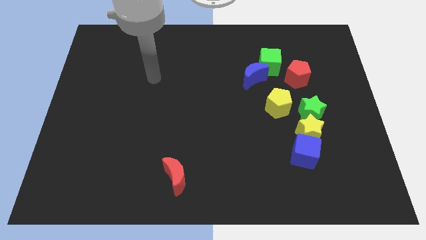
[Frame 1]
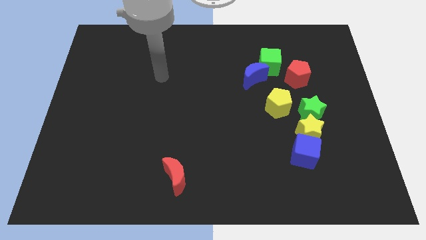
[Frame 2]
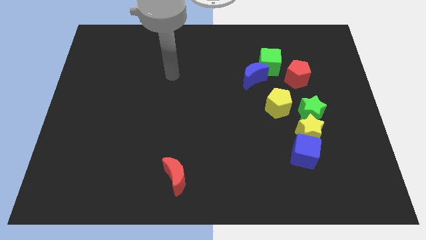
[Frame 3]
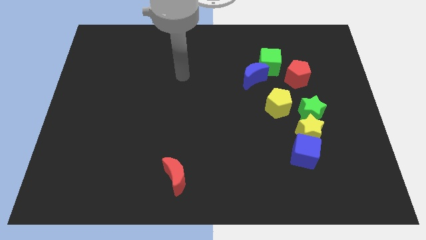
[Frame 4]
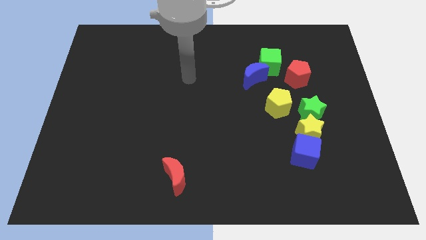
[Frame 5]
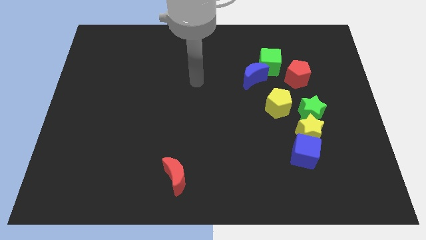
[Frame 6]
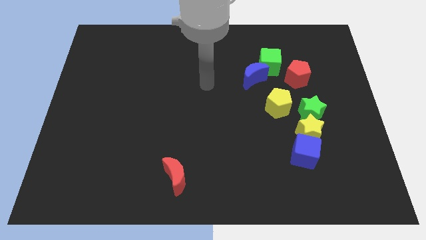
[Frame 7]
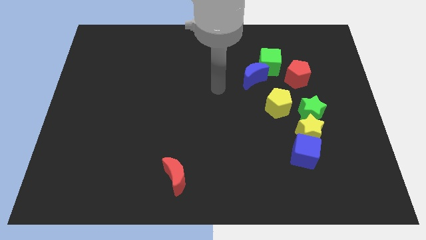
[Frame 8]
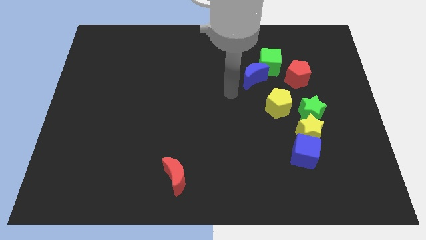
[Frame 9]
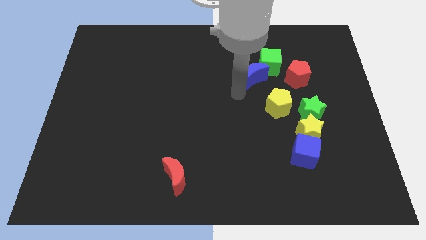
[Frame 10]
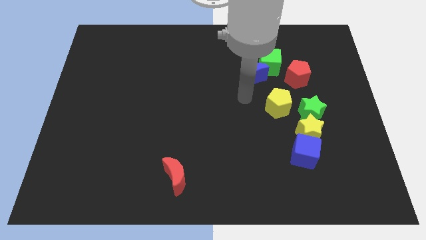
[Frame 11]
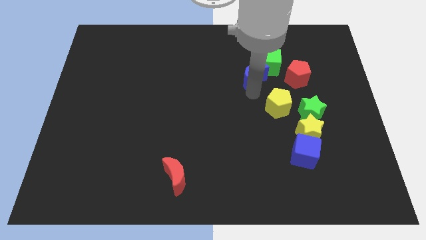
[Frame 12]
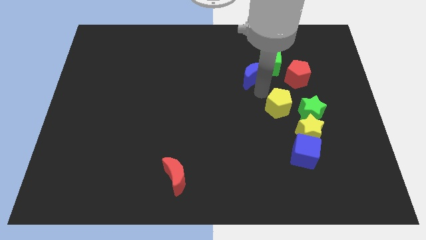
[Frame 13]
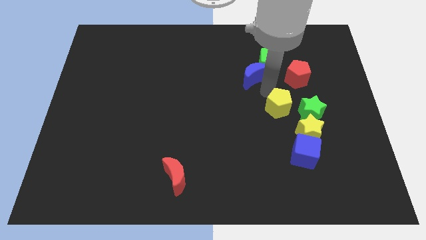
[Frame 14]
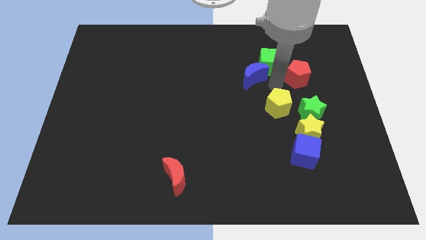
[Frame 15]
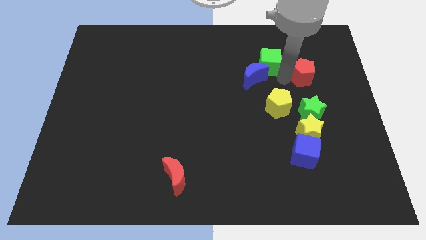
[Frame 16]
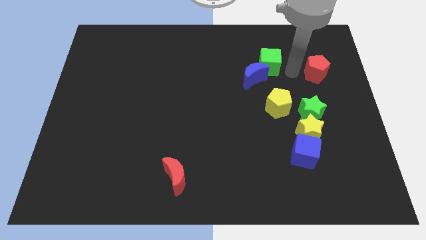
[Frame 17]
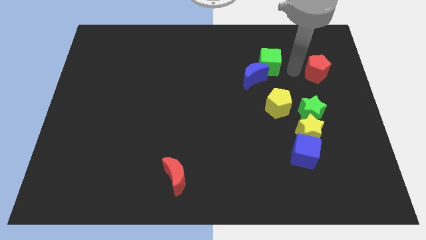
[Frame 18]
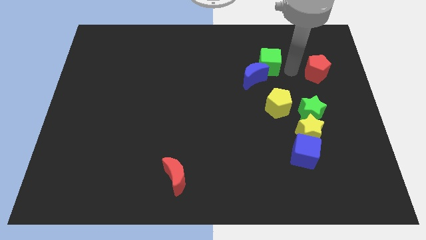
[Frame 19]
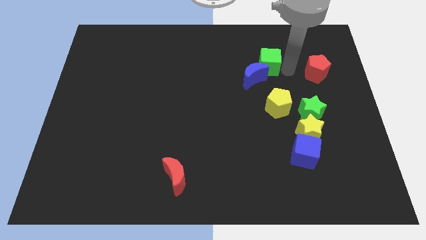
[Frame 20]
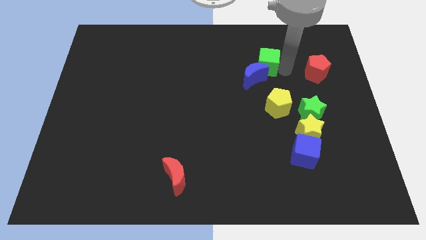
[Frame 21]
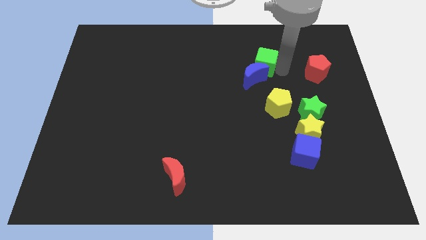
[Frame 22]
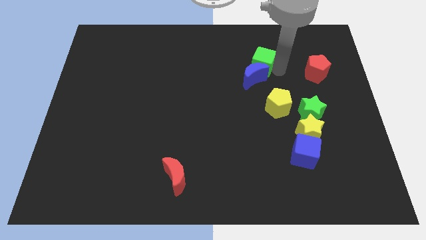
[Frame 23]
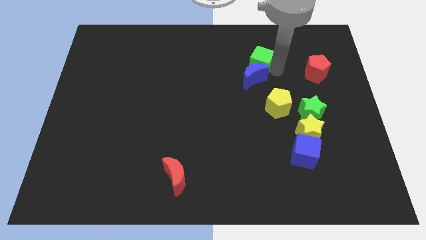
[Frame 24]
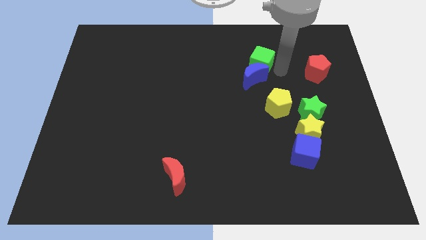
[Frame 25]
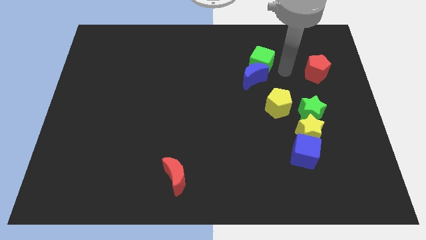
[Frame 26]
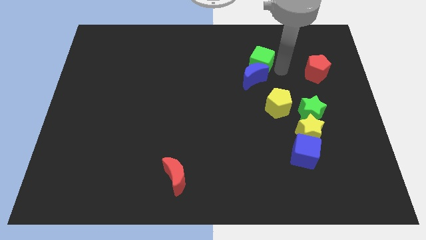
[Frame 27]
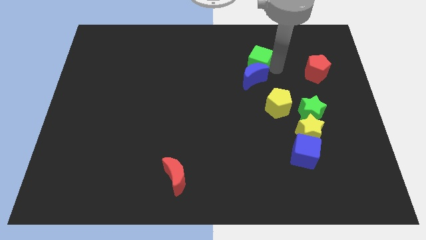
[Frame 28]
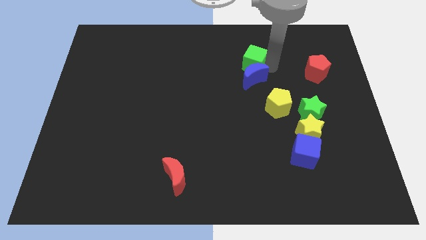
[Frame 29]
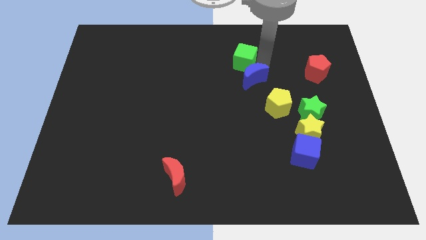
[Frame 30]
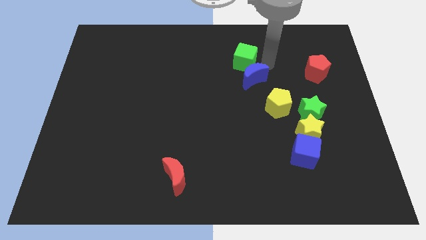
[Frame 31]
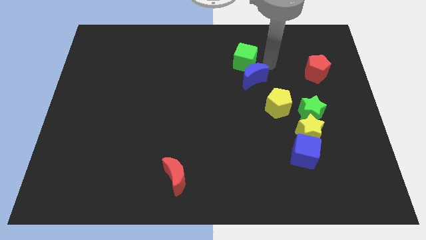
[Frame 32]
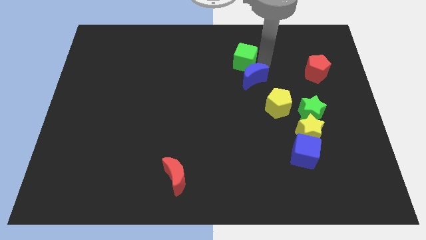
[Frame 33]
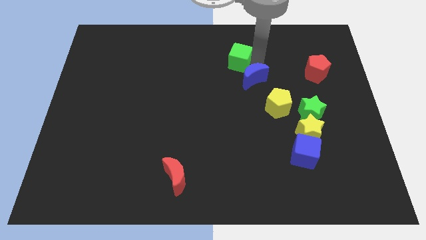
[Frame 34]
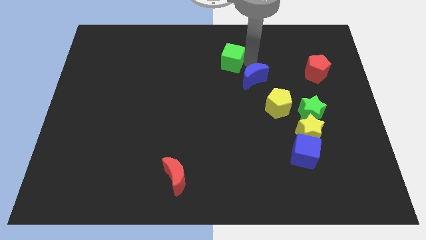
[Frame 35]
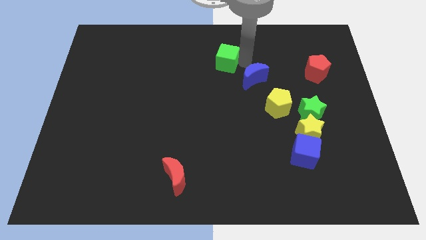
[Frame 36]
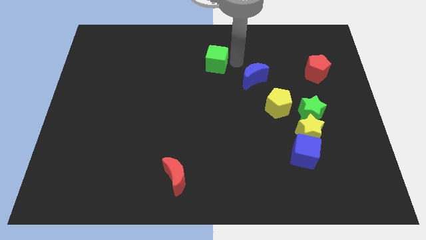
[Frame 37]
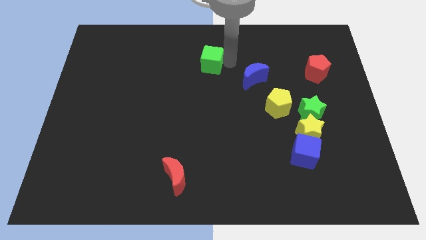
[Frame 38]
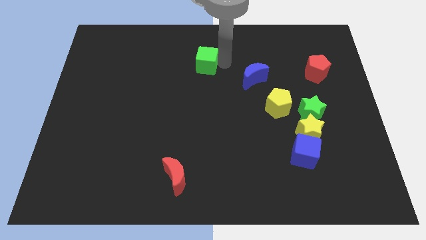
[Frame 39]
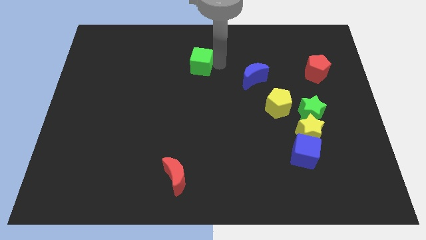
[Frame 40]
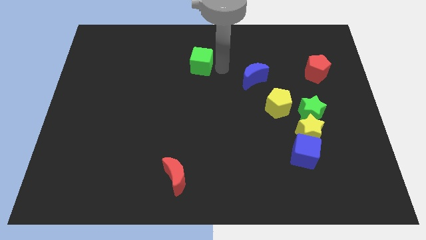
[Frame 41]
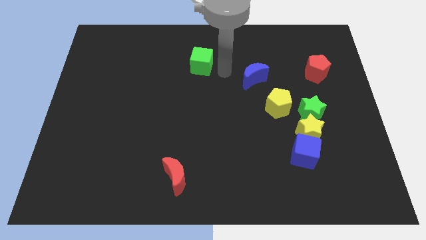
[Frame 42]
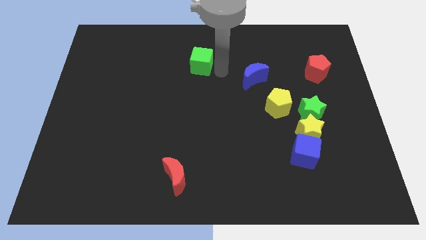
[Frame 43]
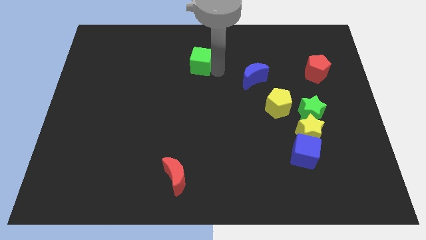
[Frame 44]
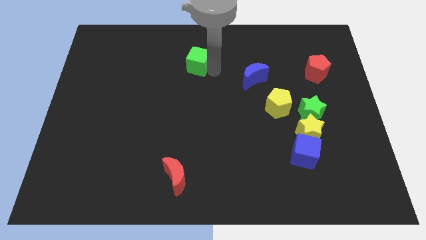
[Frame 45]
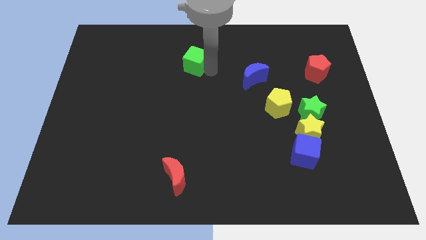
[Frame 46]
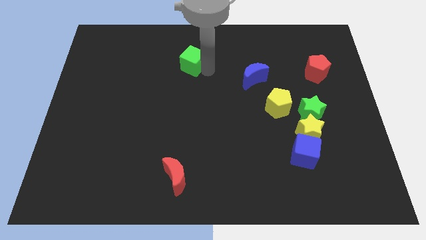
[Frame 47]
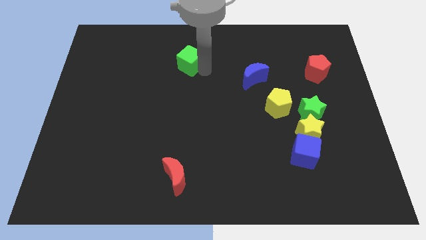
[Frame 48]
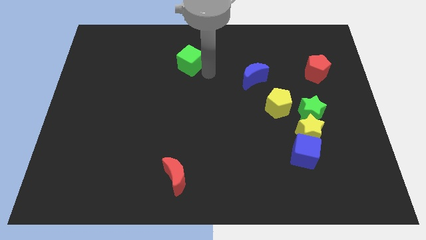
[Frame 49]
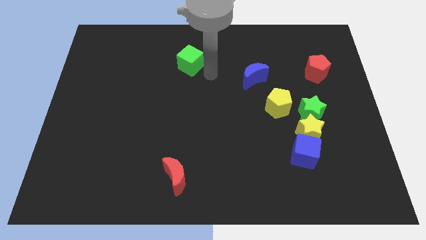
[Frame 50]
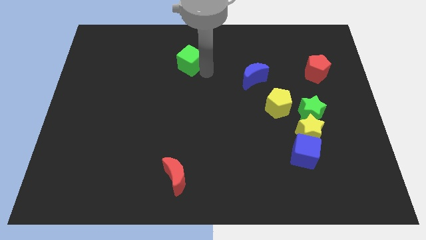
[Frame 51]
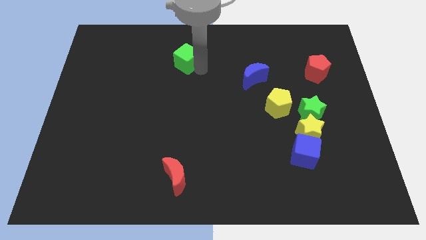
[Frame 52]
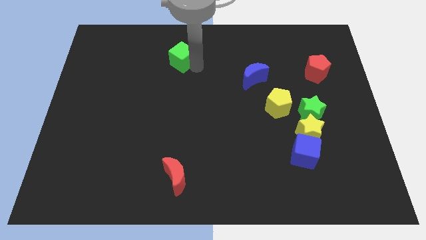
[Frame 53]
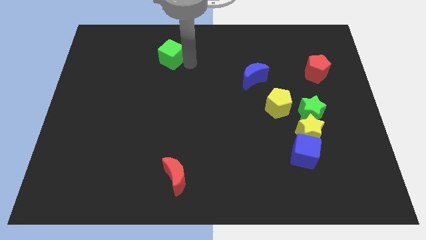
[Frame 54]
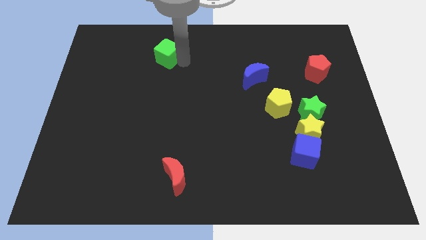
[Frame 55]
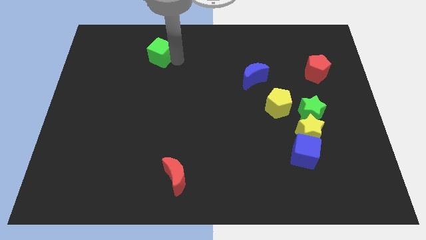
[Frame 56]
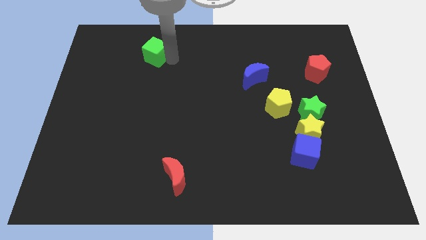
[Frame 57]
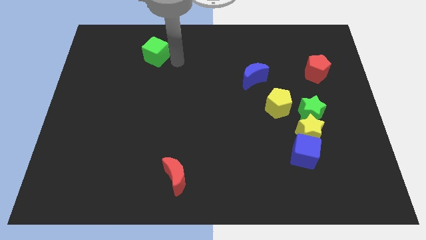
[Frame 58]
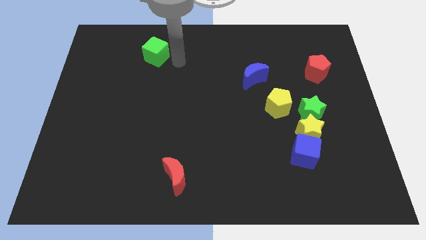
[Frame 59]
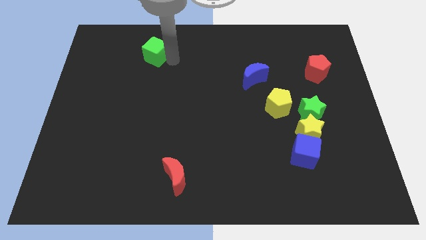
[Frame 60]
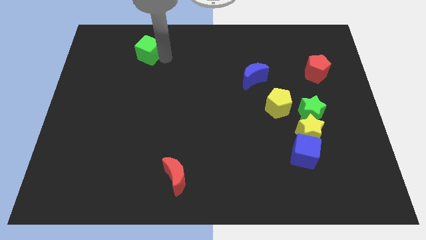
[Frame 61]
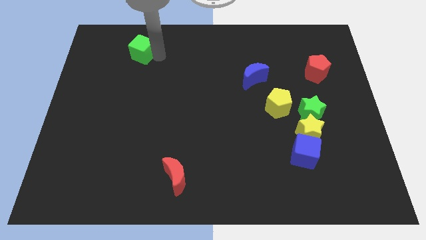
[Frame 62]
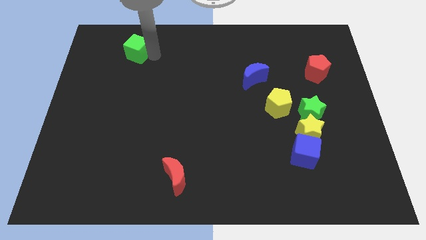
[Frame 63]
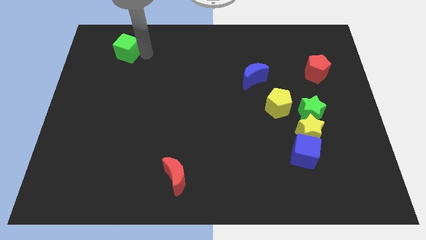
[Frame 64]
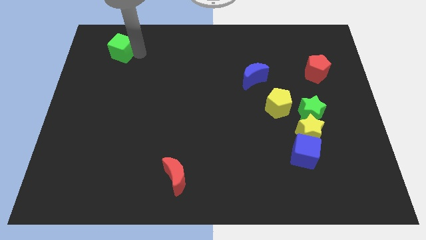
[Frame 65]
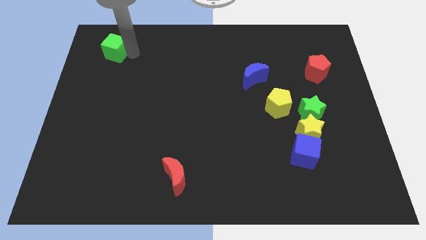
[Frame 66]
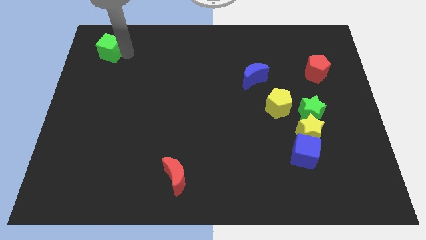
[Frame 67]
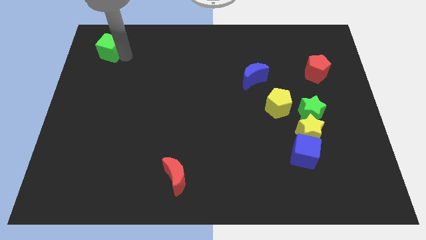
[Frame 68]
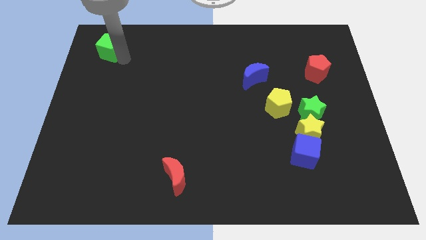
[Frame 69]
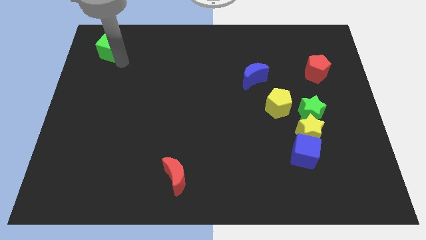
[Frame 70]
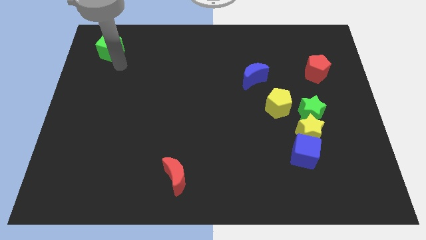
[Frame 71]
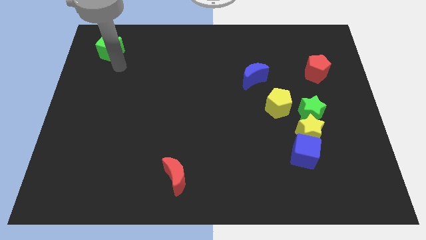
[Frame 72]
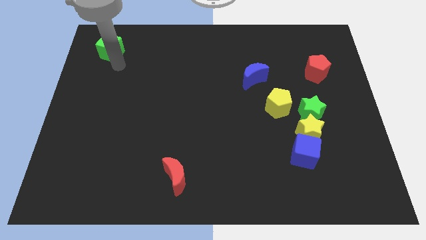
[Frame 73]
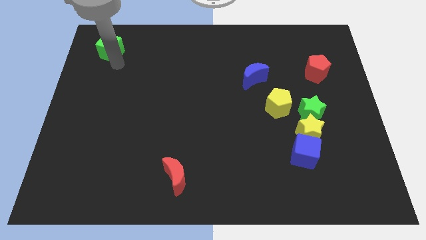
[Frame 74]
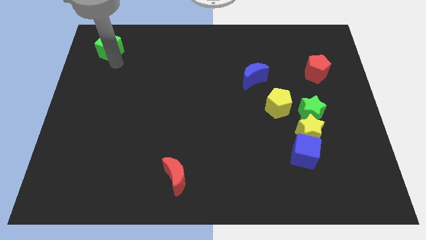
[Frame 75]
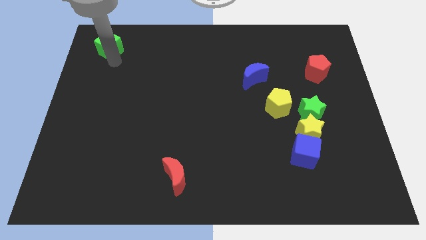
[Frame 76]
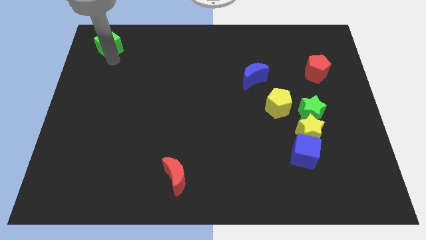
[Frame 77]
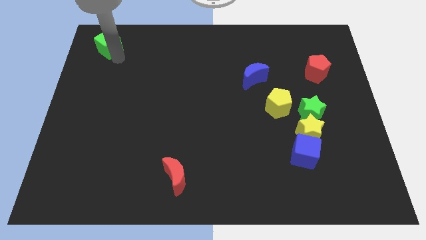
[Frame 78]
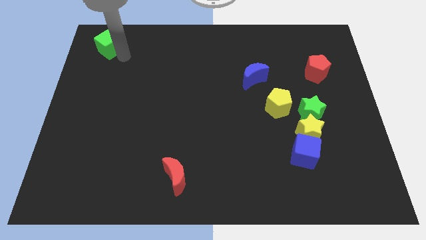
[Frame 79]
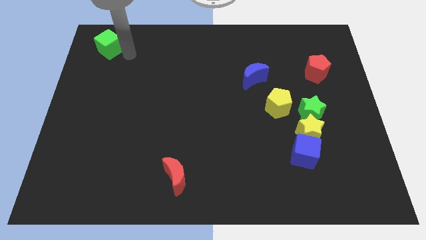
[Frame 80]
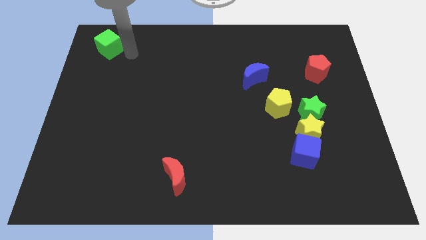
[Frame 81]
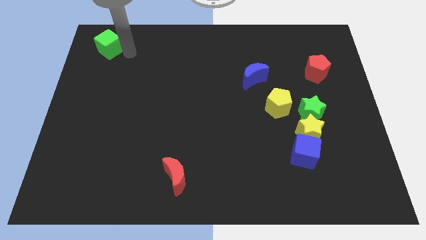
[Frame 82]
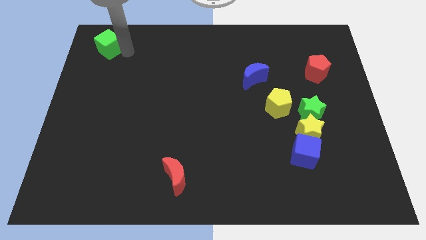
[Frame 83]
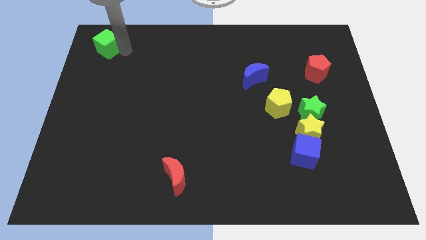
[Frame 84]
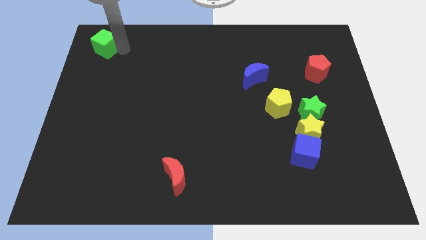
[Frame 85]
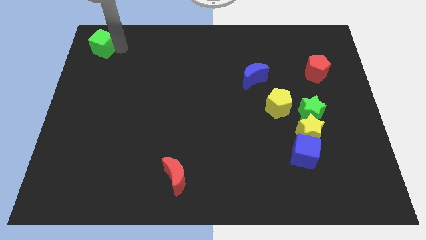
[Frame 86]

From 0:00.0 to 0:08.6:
push the green cube to the upper left corner
